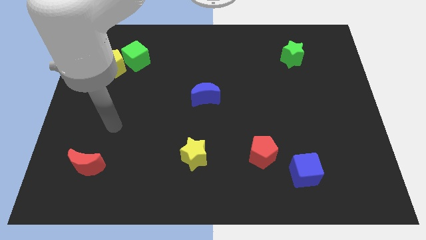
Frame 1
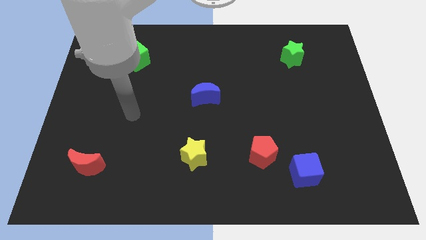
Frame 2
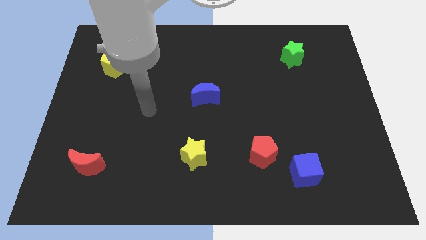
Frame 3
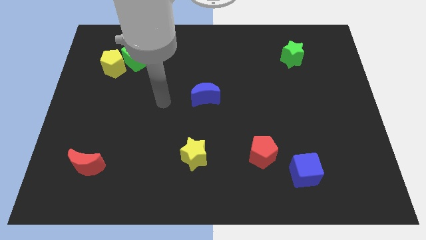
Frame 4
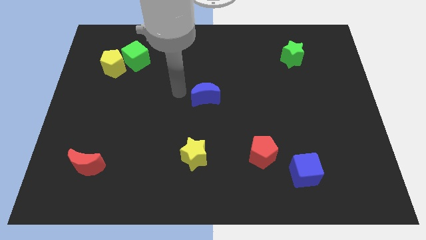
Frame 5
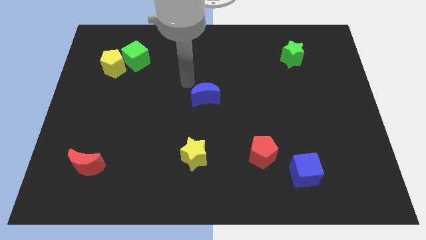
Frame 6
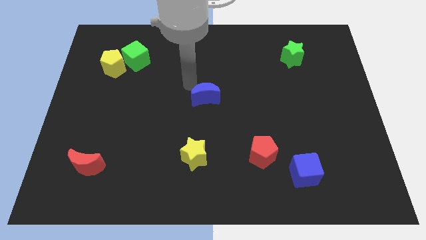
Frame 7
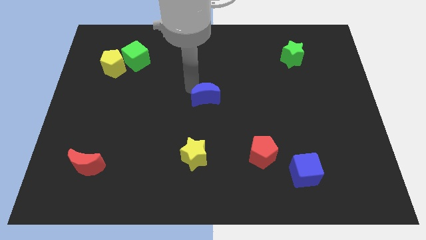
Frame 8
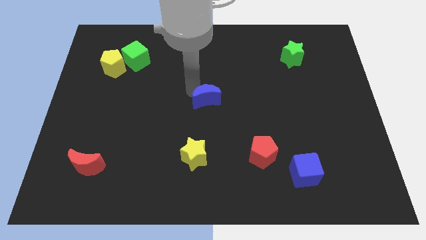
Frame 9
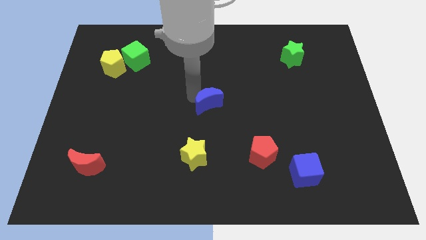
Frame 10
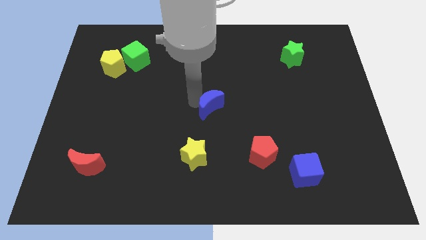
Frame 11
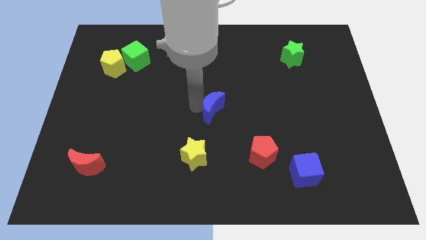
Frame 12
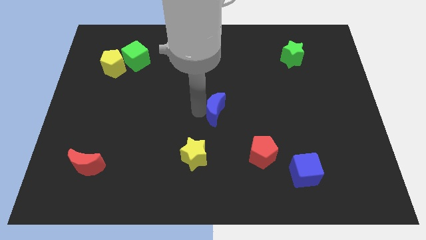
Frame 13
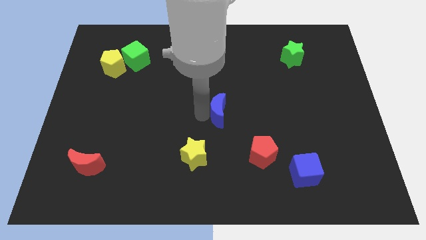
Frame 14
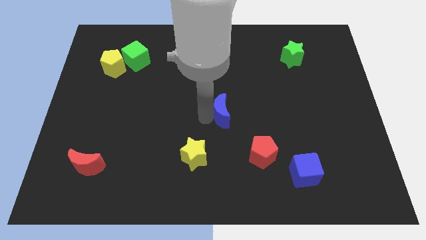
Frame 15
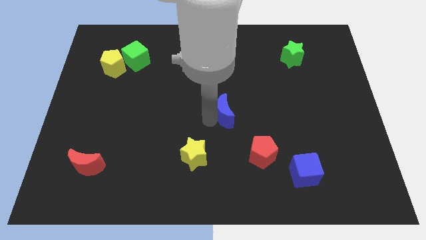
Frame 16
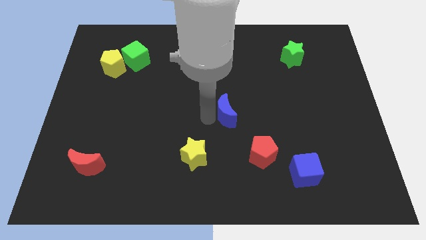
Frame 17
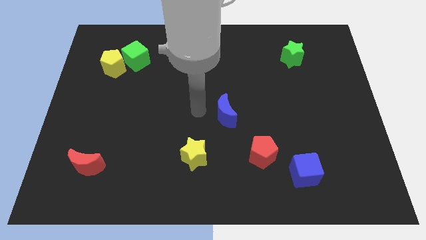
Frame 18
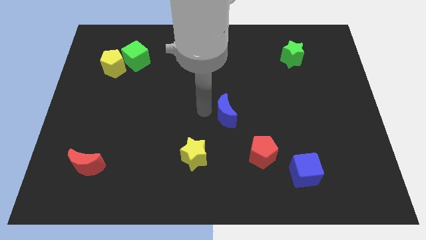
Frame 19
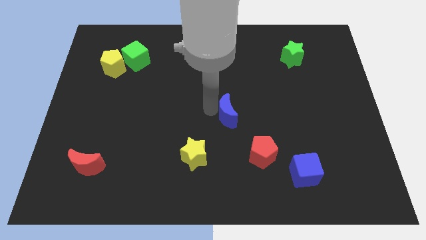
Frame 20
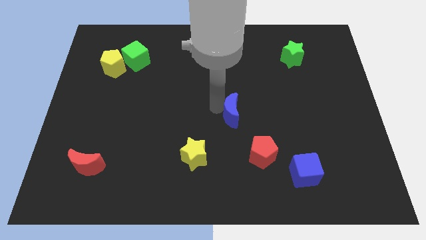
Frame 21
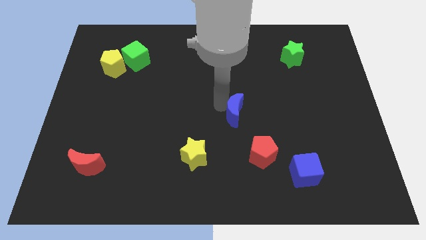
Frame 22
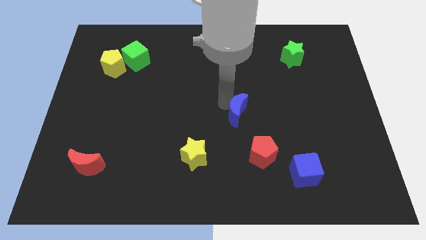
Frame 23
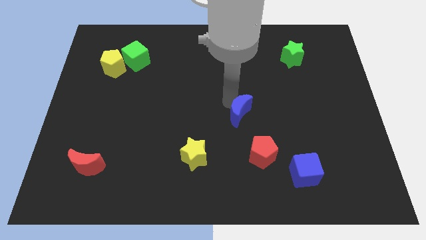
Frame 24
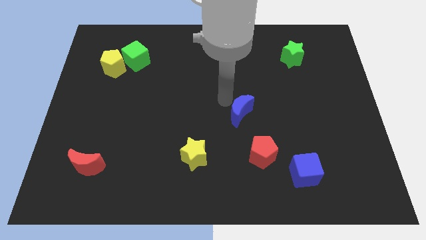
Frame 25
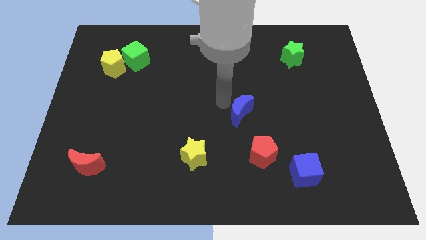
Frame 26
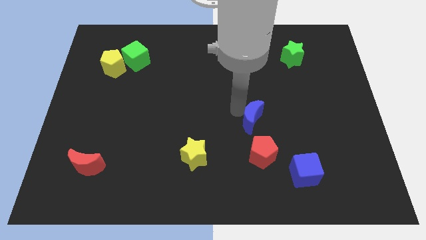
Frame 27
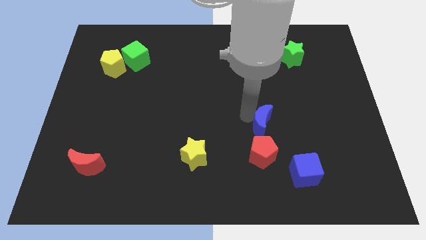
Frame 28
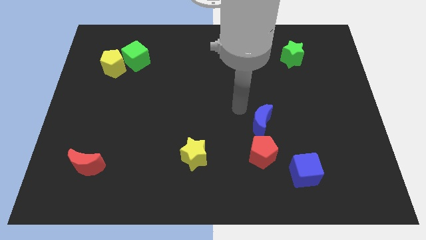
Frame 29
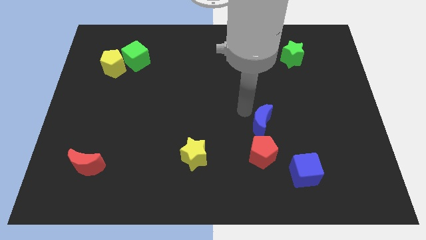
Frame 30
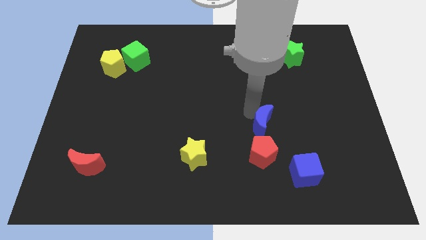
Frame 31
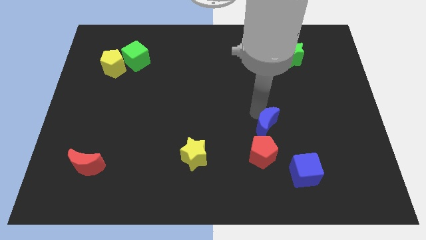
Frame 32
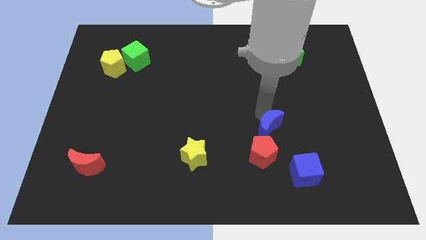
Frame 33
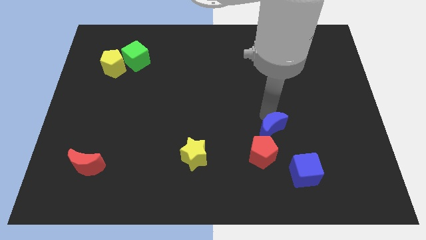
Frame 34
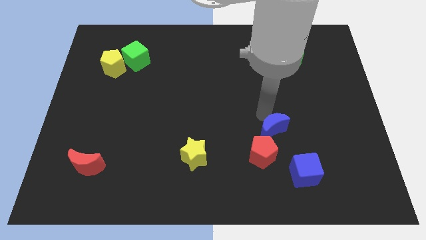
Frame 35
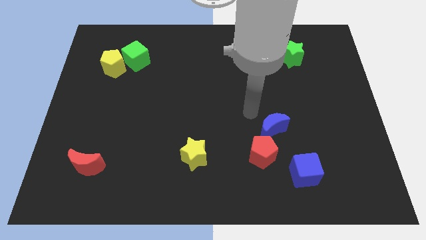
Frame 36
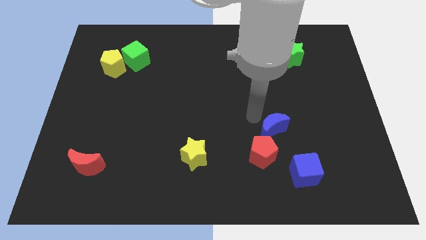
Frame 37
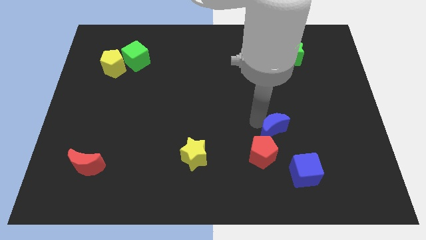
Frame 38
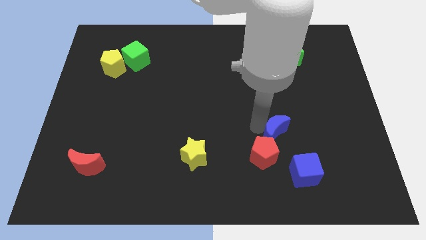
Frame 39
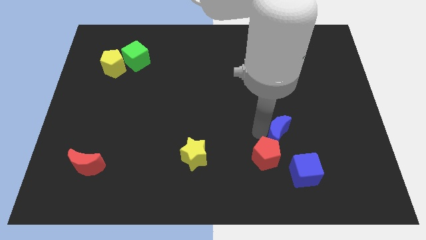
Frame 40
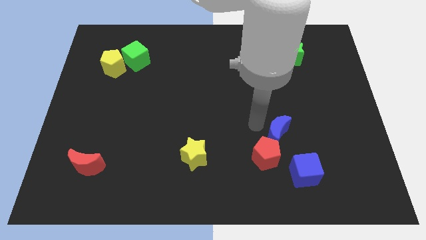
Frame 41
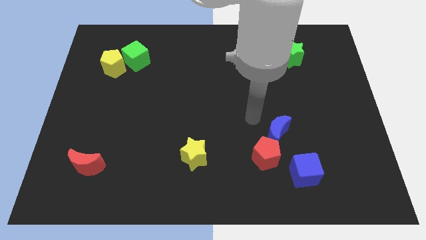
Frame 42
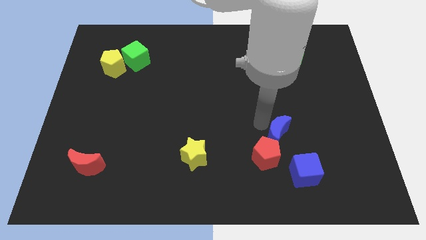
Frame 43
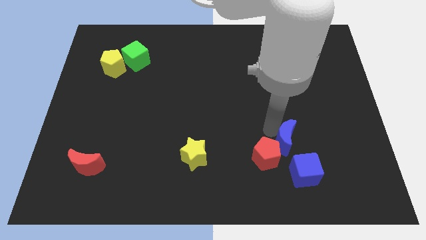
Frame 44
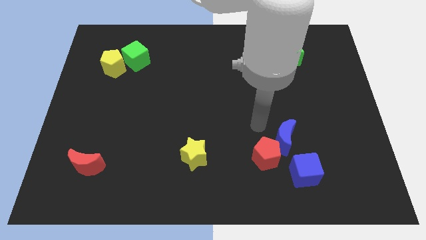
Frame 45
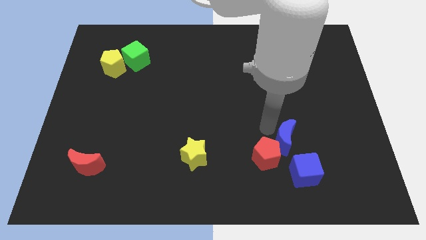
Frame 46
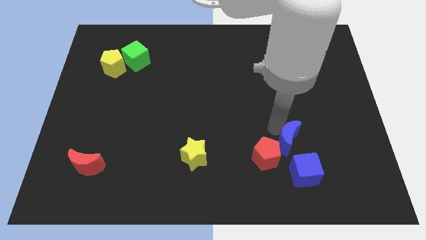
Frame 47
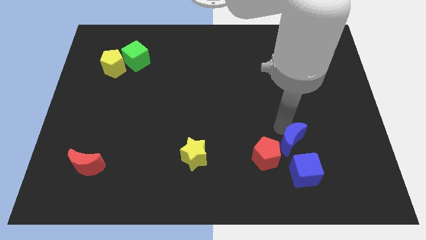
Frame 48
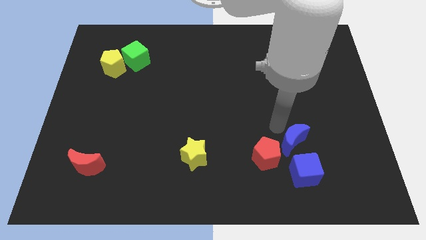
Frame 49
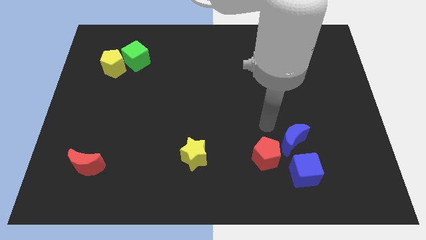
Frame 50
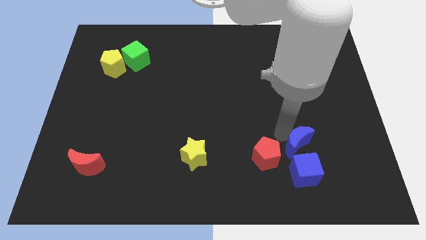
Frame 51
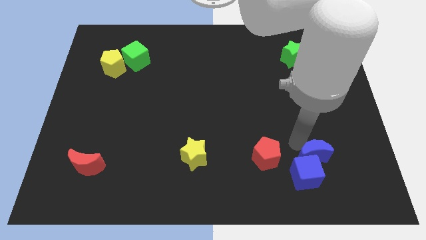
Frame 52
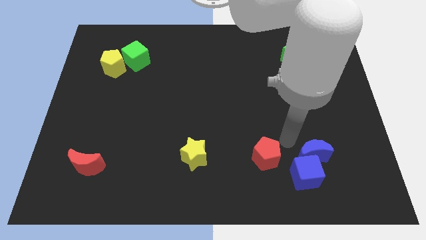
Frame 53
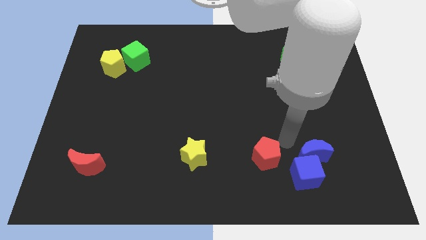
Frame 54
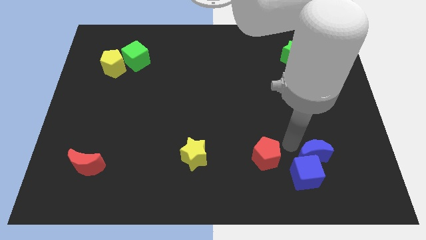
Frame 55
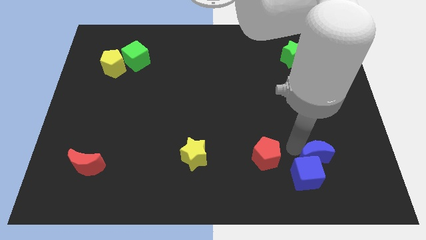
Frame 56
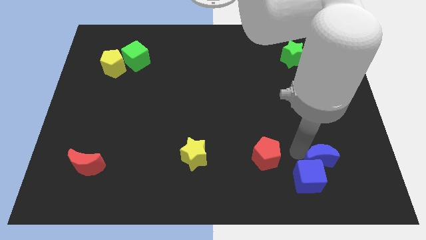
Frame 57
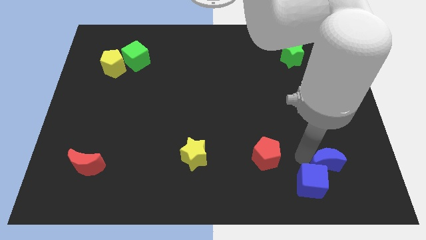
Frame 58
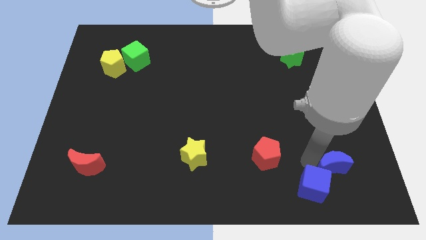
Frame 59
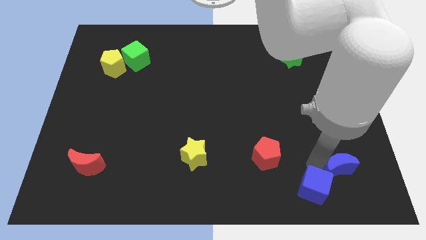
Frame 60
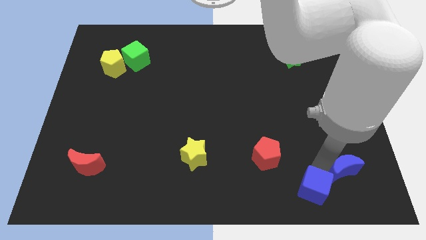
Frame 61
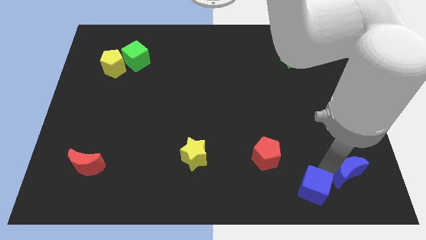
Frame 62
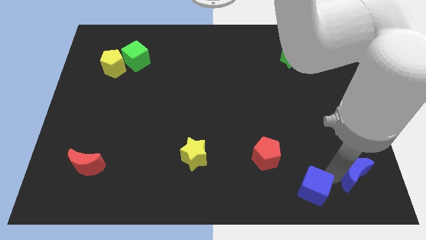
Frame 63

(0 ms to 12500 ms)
push the blue moon to the bottom right corner
